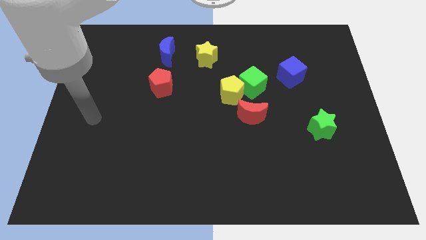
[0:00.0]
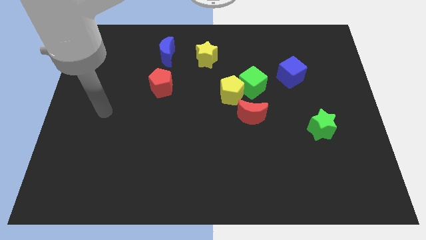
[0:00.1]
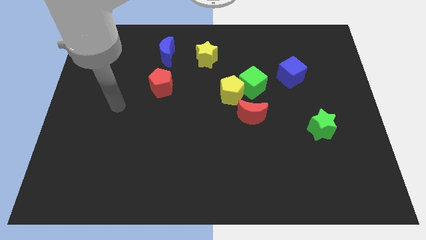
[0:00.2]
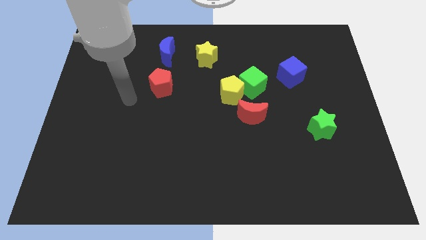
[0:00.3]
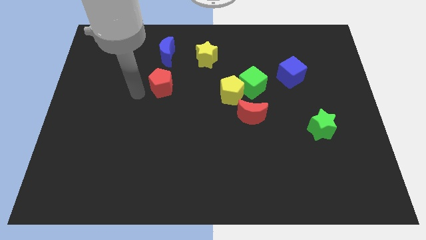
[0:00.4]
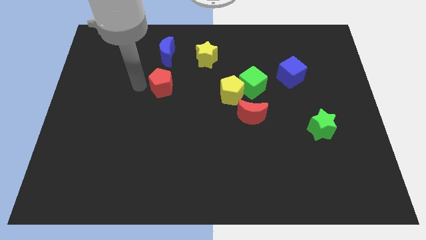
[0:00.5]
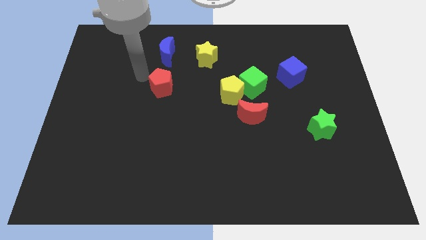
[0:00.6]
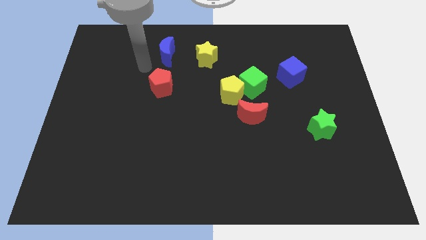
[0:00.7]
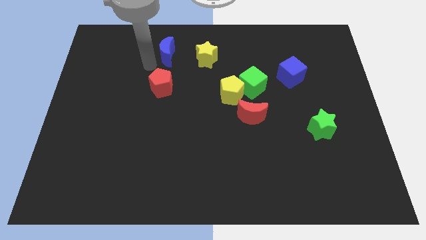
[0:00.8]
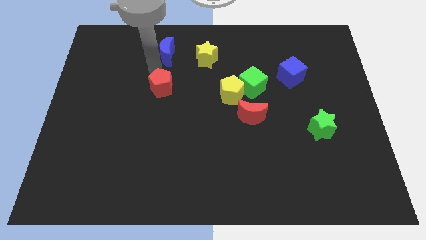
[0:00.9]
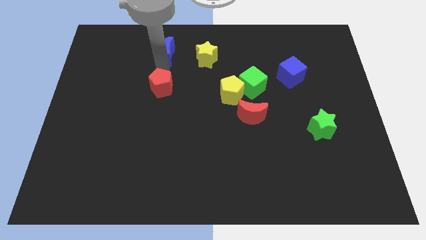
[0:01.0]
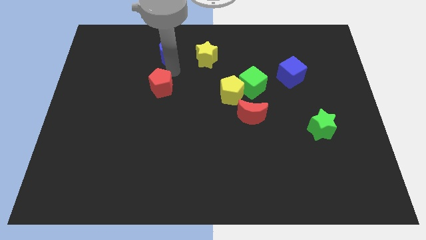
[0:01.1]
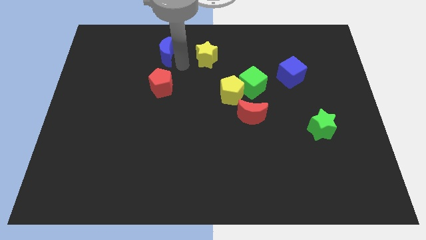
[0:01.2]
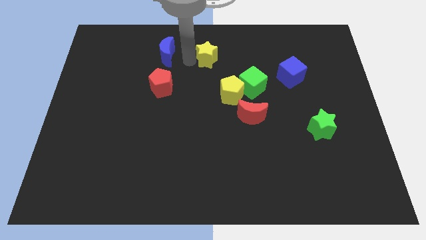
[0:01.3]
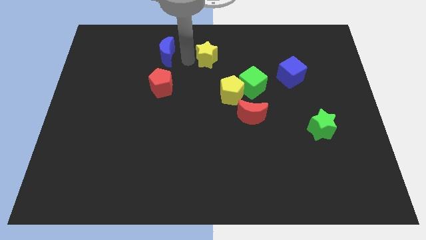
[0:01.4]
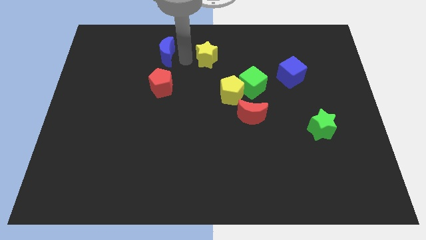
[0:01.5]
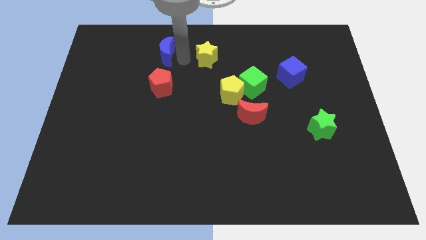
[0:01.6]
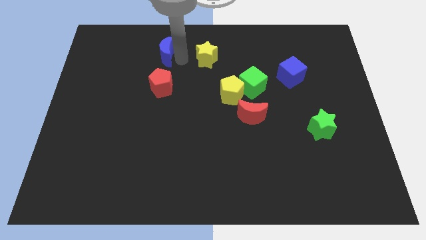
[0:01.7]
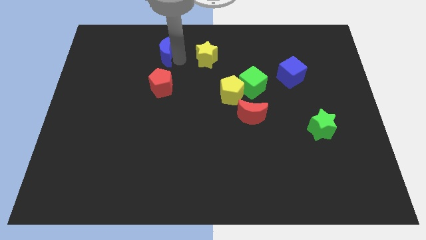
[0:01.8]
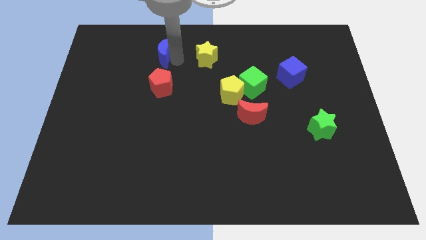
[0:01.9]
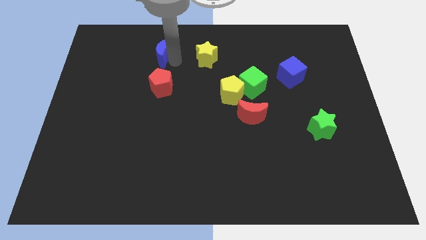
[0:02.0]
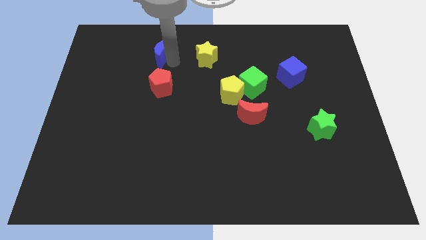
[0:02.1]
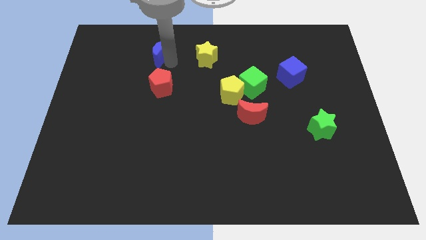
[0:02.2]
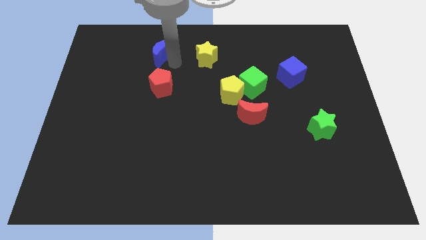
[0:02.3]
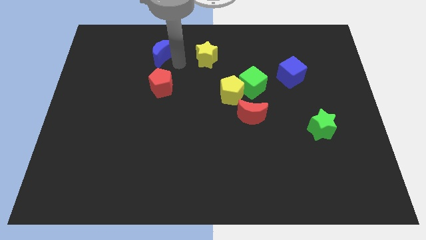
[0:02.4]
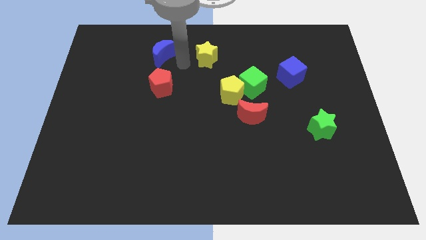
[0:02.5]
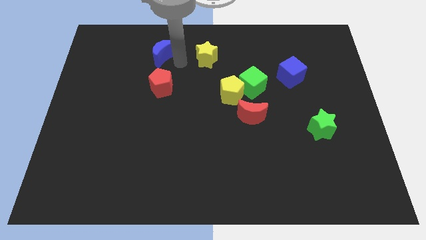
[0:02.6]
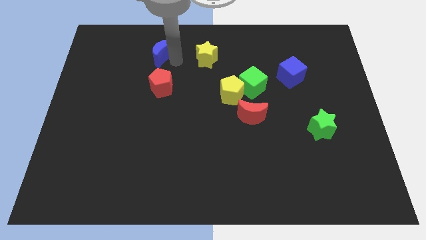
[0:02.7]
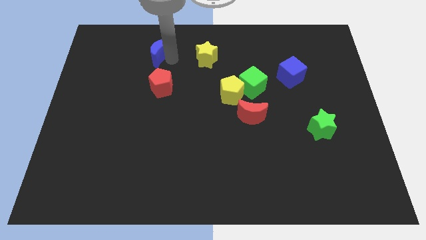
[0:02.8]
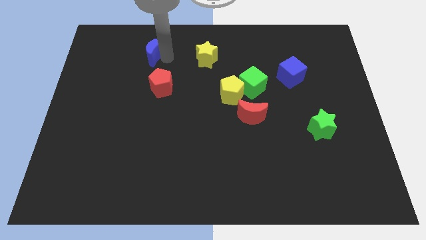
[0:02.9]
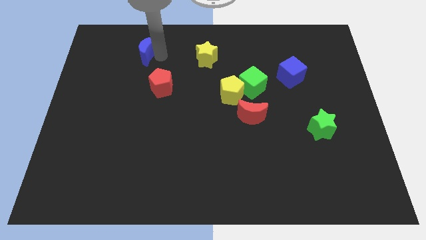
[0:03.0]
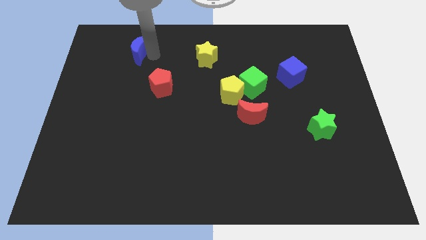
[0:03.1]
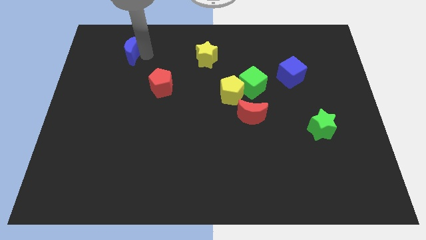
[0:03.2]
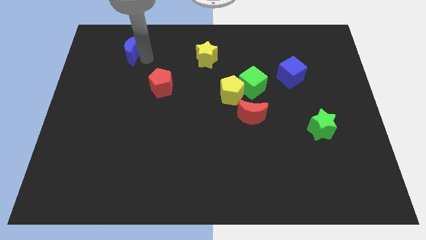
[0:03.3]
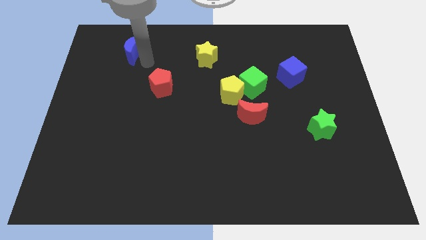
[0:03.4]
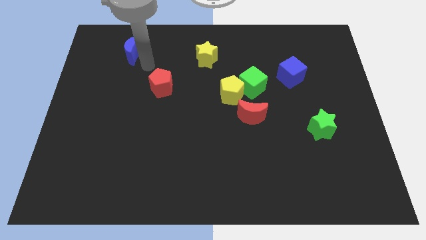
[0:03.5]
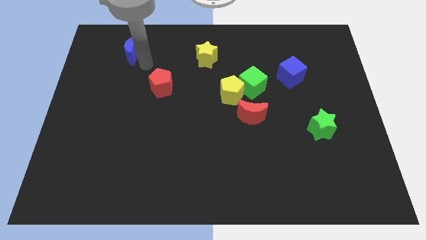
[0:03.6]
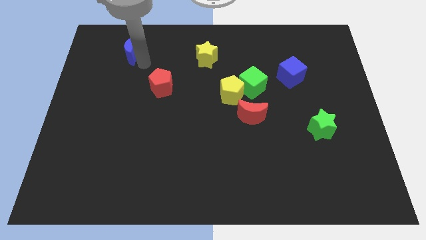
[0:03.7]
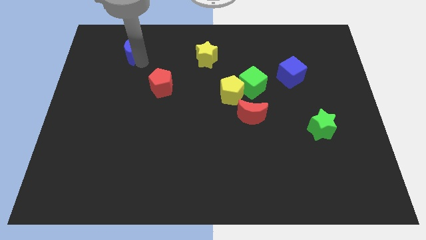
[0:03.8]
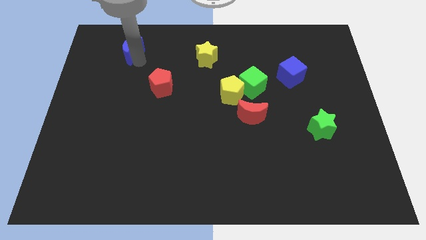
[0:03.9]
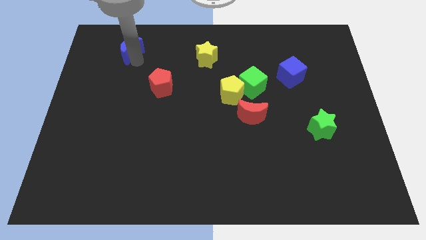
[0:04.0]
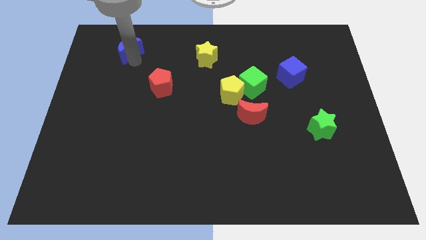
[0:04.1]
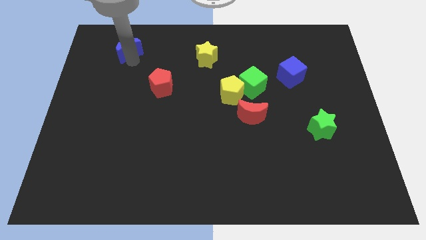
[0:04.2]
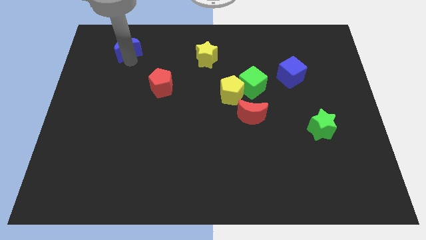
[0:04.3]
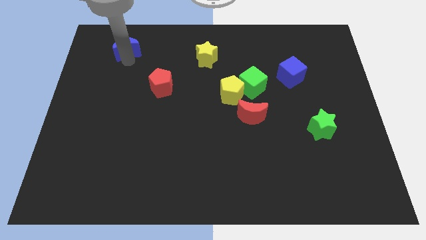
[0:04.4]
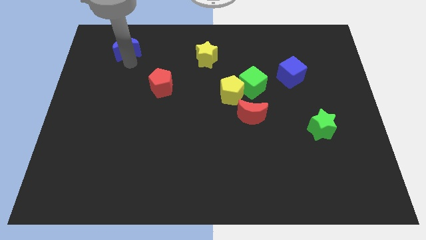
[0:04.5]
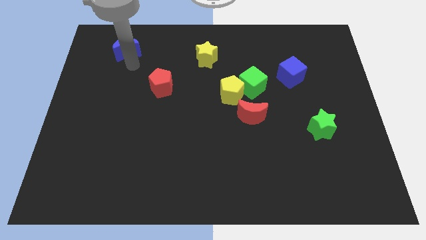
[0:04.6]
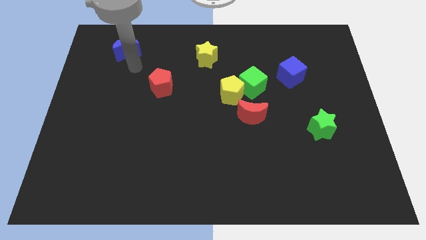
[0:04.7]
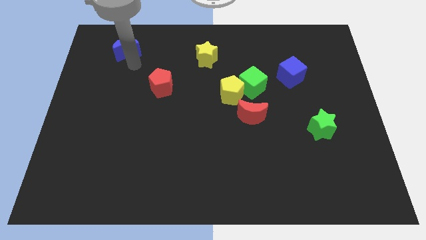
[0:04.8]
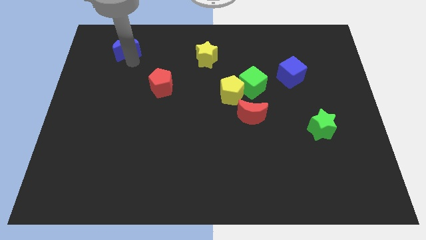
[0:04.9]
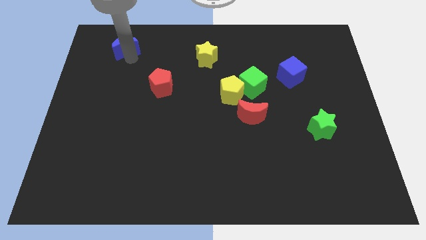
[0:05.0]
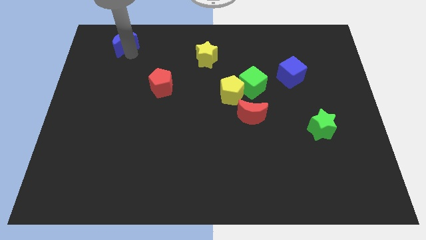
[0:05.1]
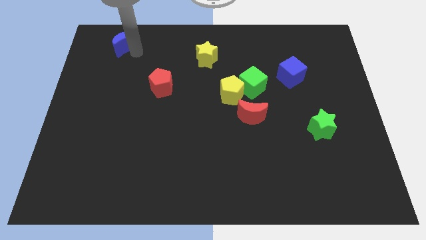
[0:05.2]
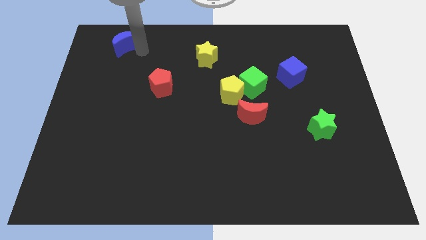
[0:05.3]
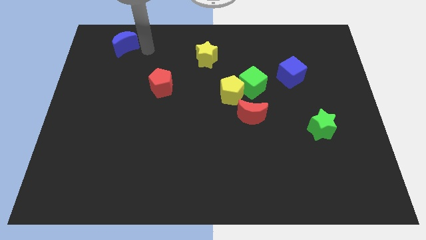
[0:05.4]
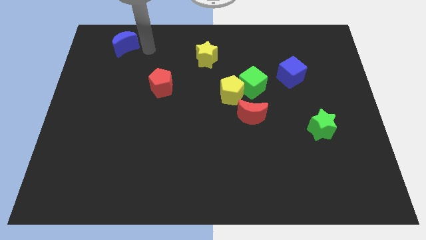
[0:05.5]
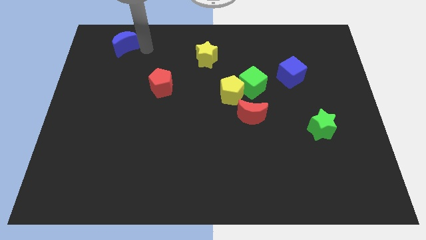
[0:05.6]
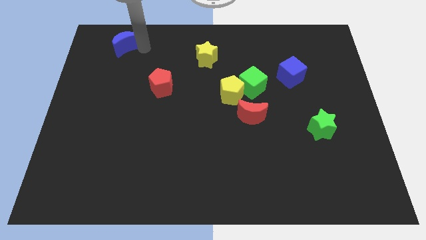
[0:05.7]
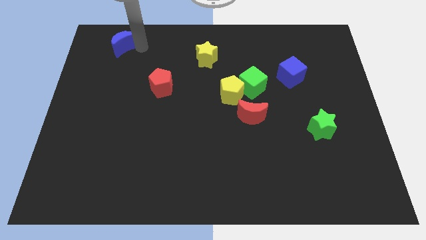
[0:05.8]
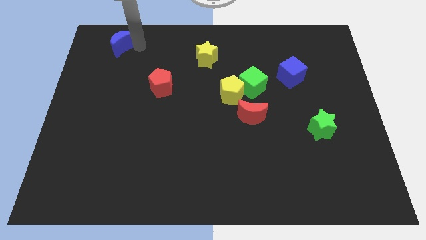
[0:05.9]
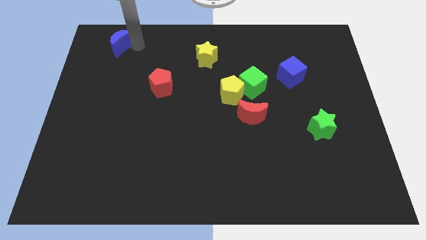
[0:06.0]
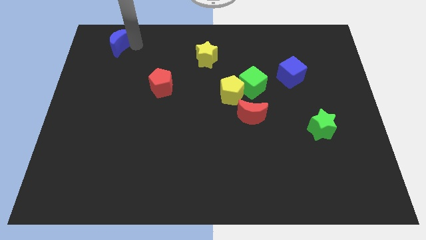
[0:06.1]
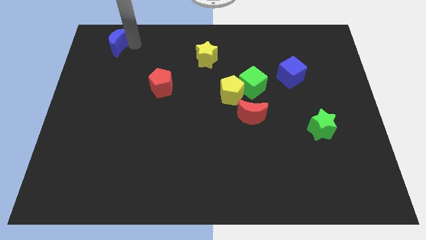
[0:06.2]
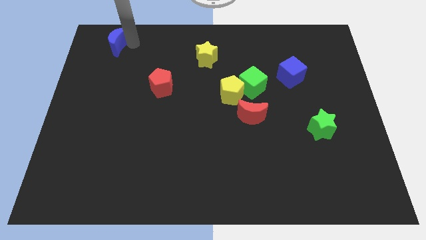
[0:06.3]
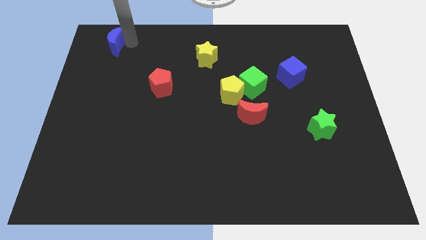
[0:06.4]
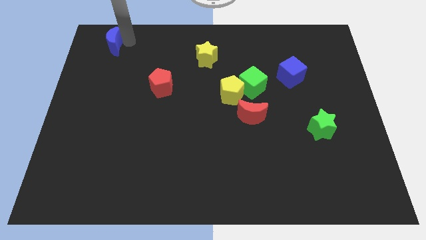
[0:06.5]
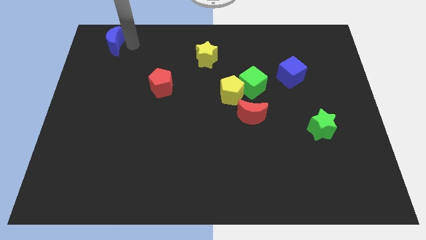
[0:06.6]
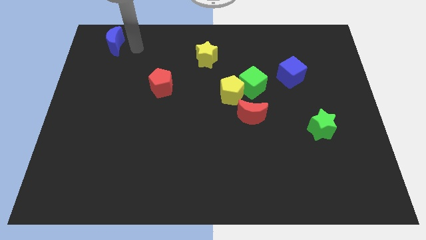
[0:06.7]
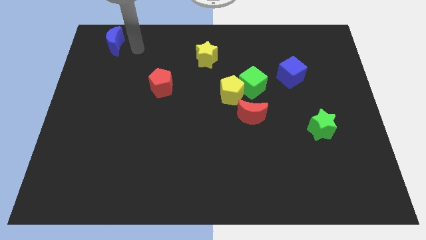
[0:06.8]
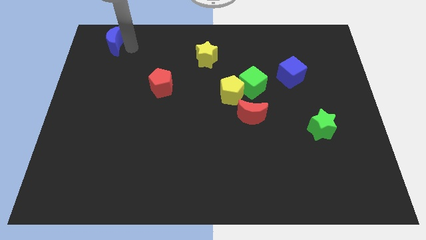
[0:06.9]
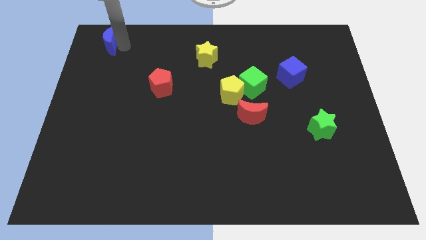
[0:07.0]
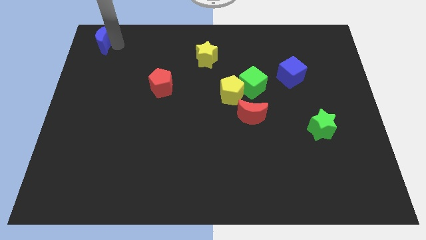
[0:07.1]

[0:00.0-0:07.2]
push the blue moon to the top left corner
